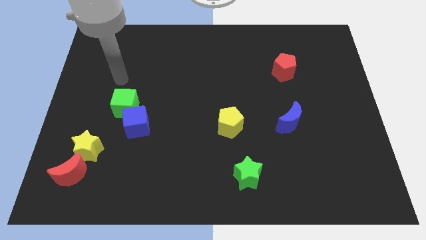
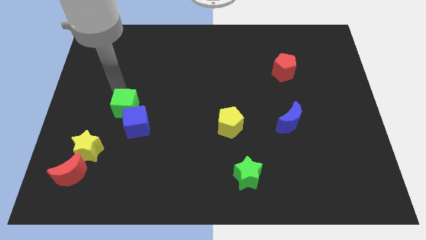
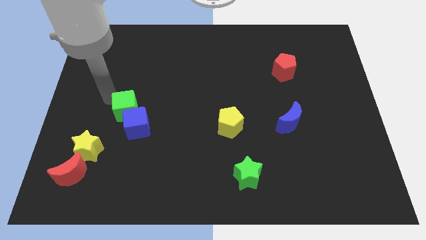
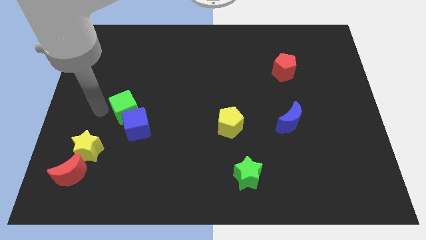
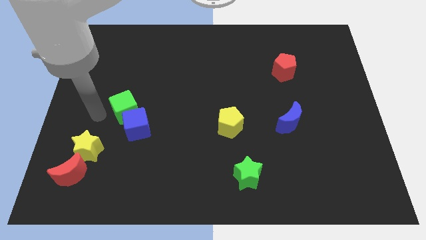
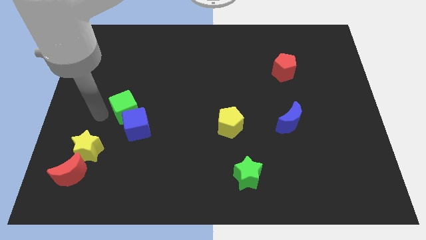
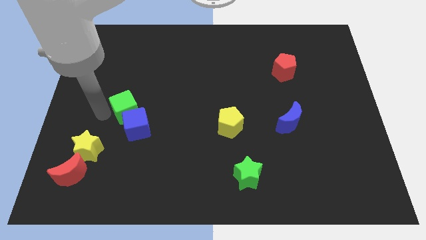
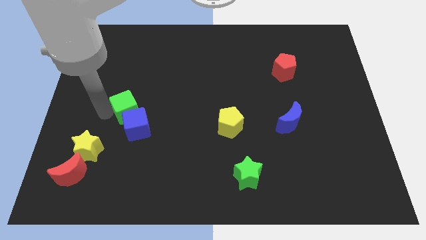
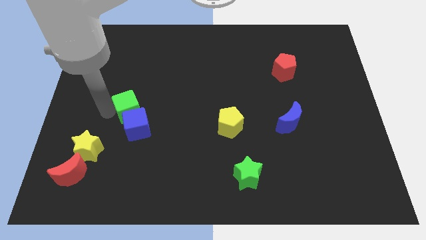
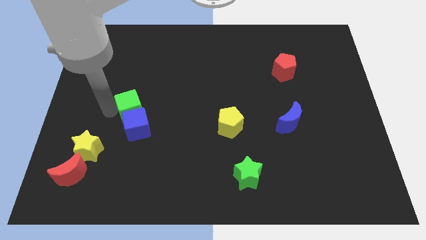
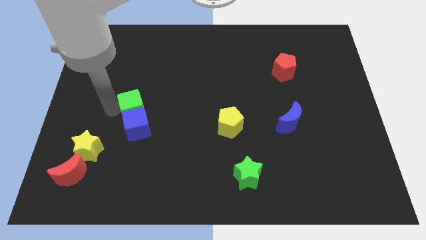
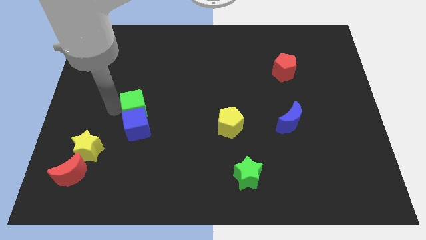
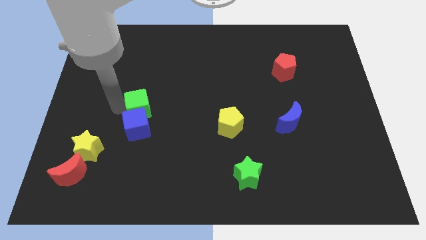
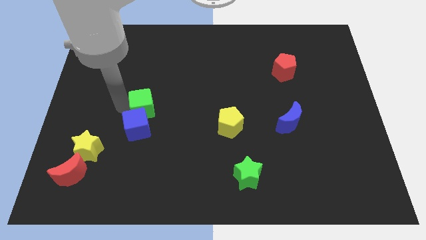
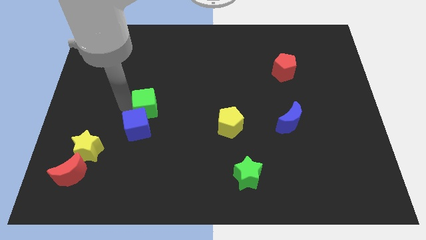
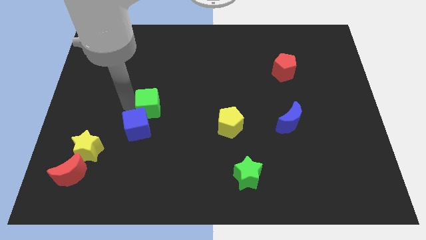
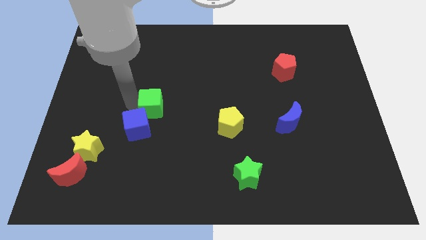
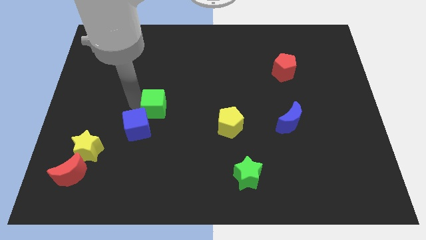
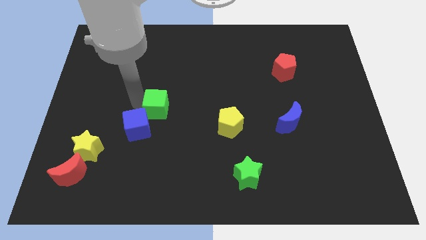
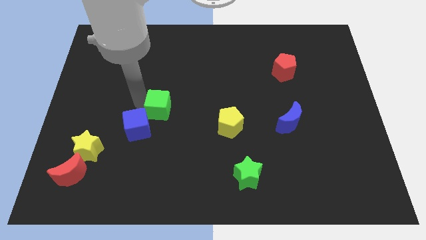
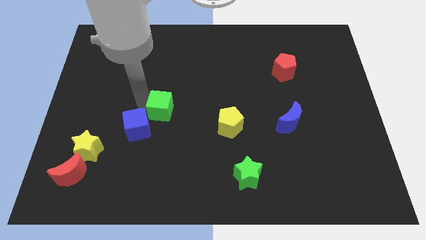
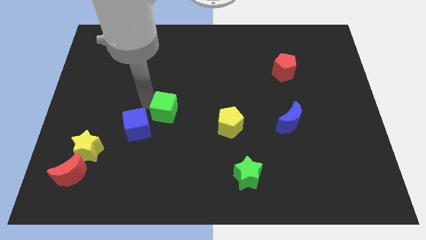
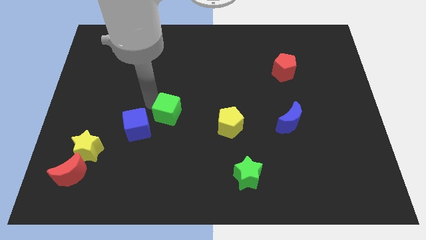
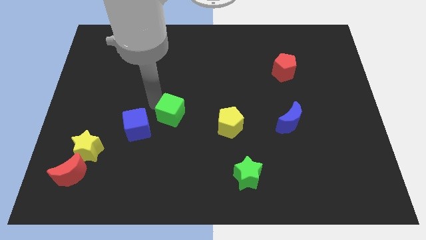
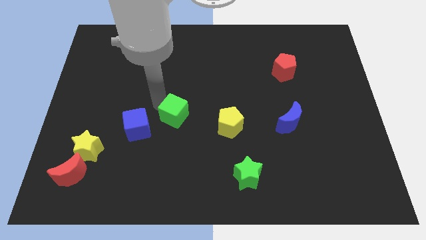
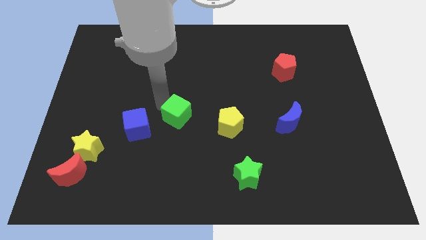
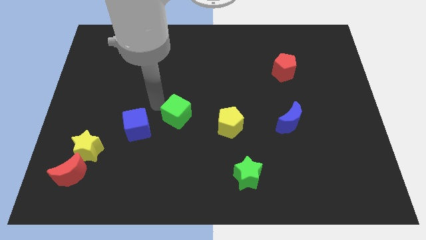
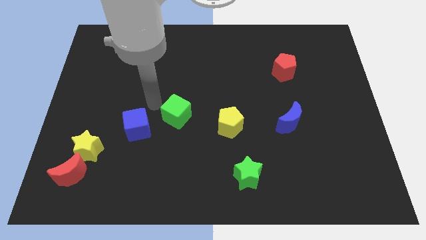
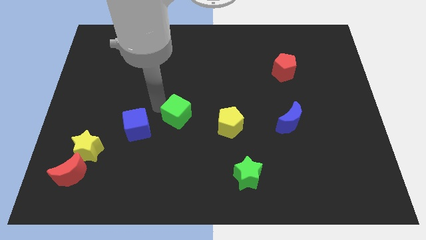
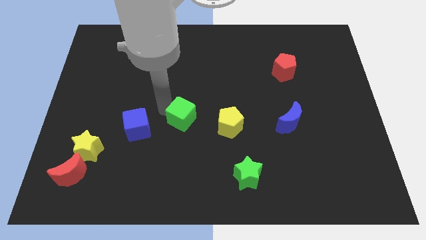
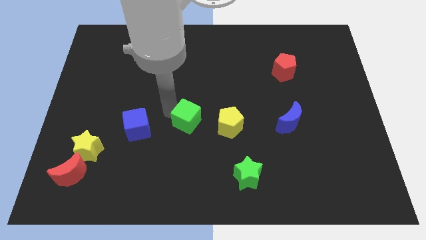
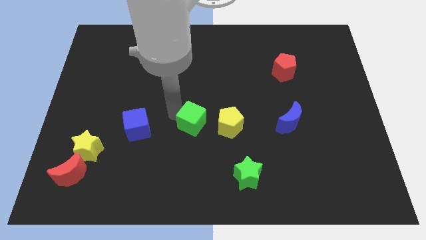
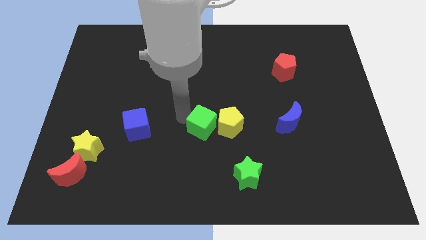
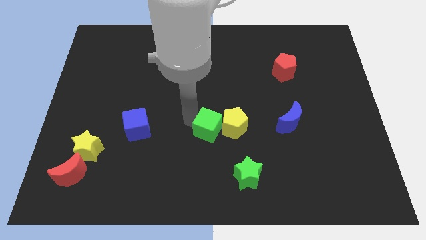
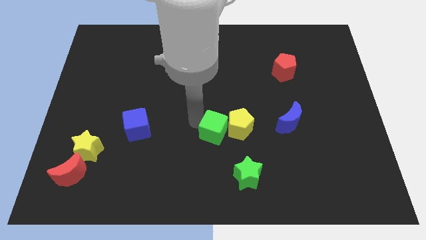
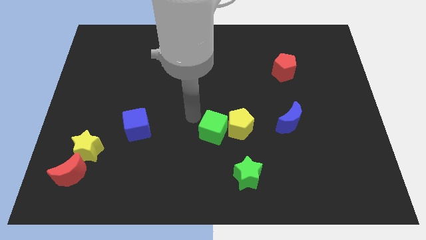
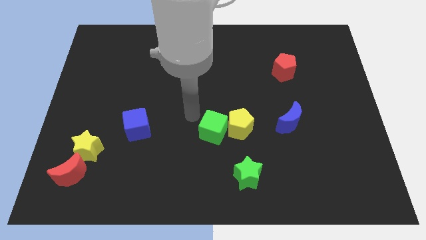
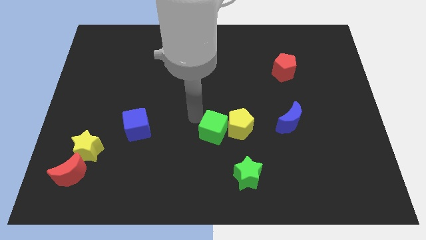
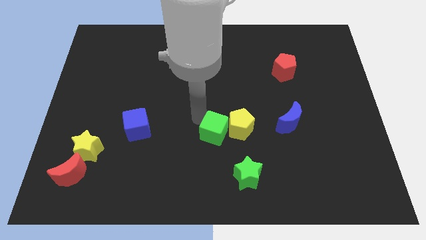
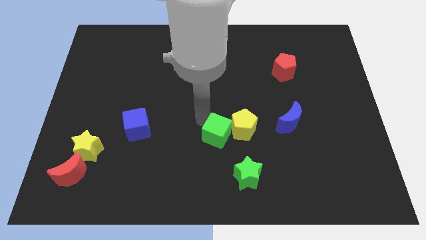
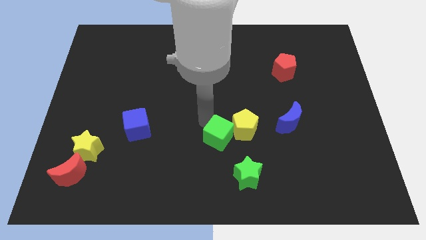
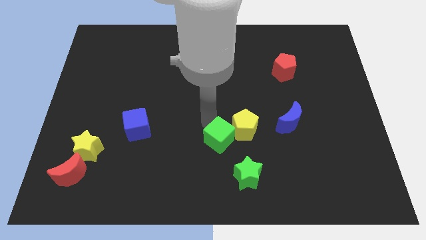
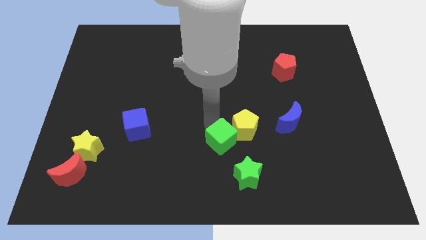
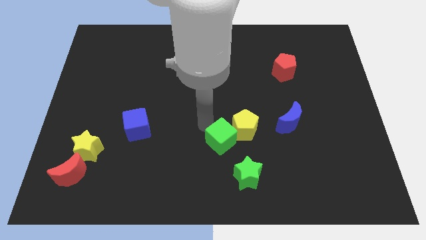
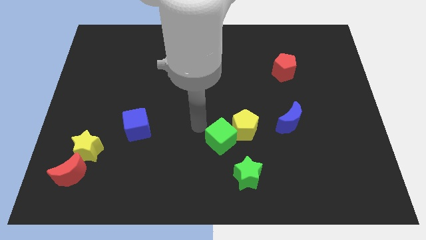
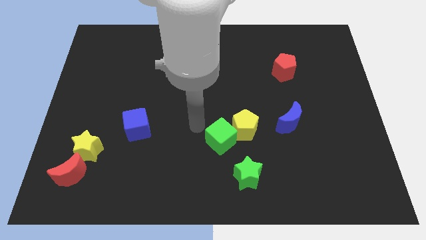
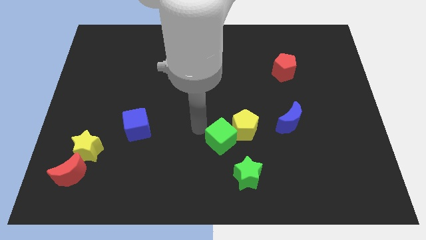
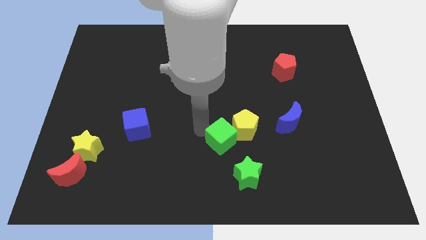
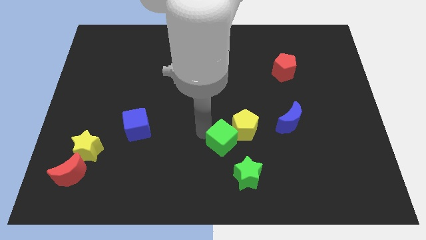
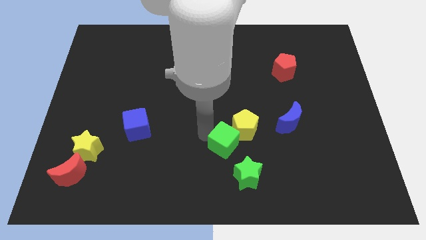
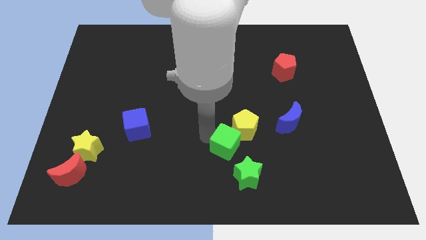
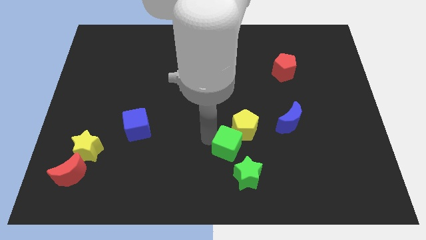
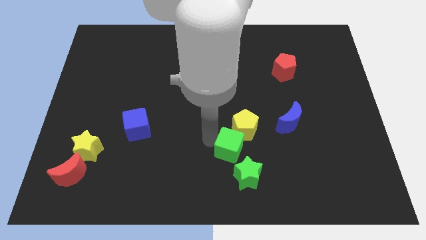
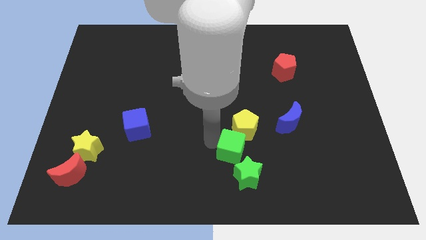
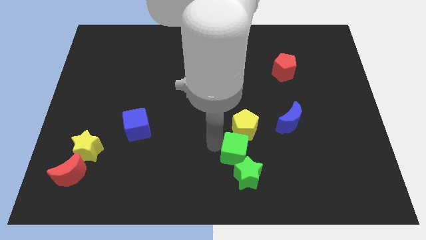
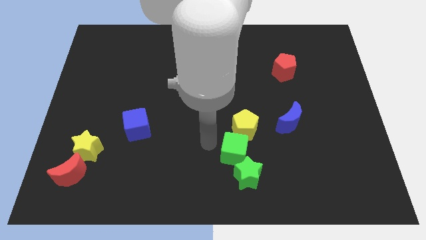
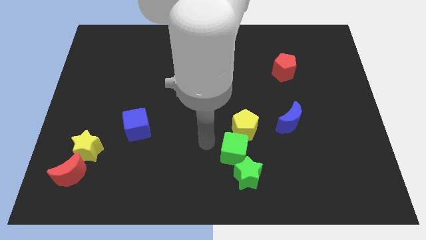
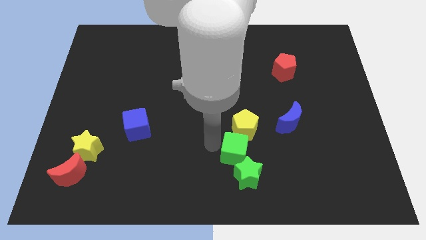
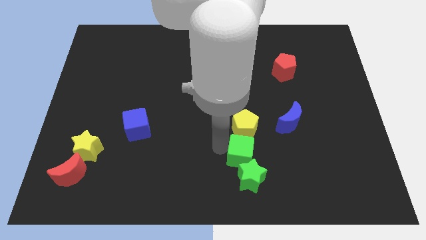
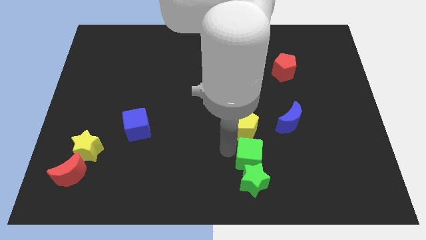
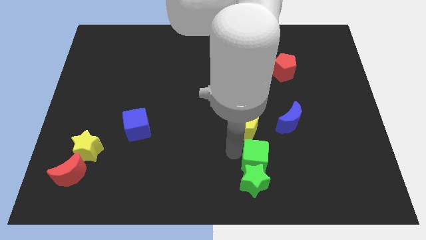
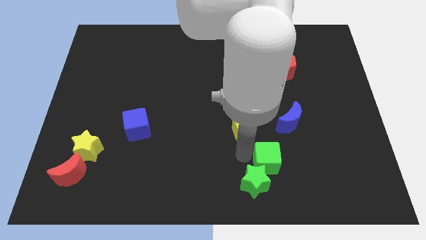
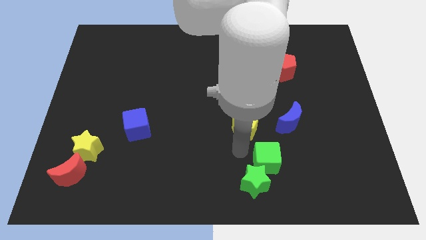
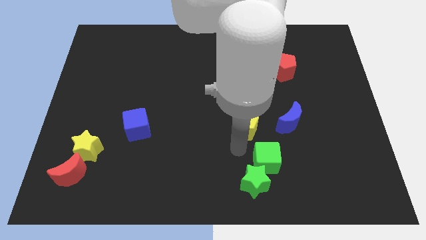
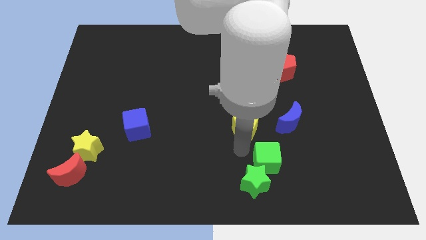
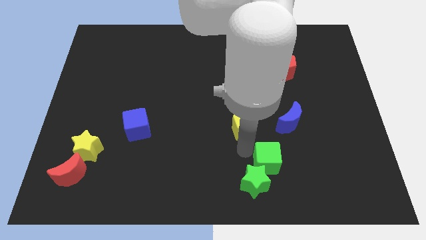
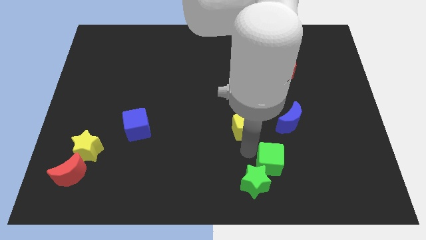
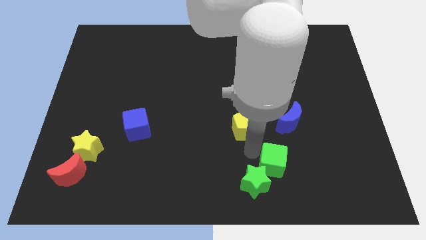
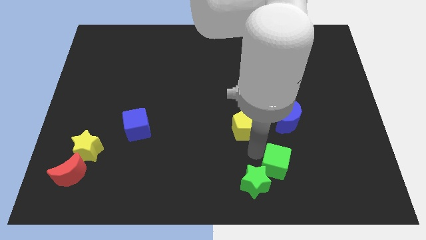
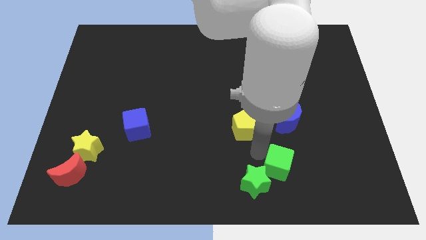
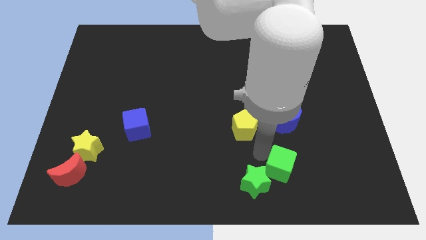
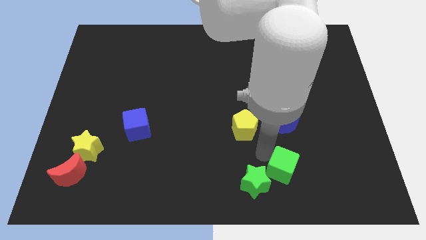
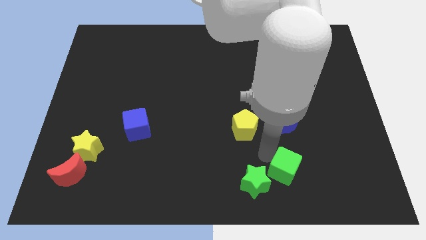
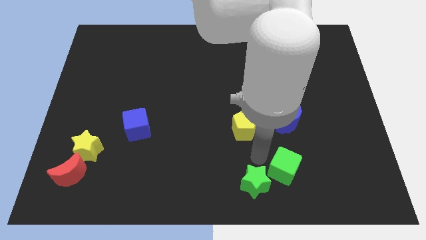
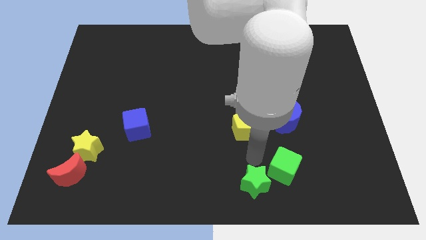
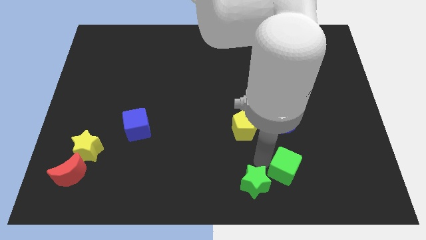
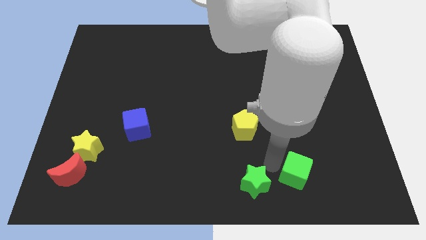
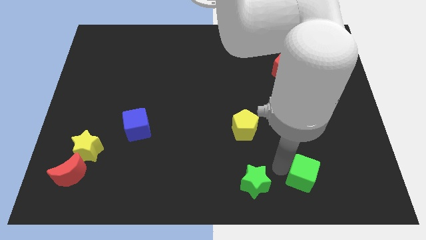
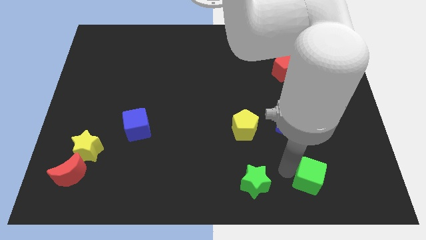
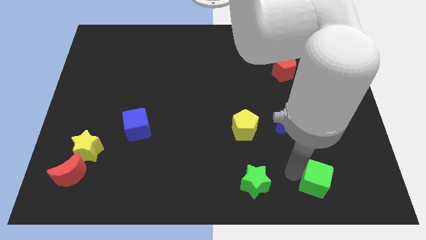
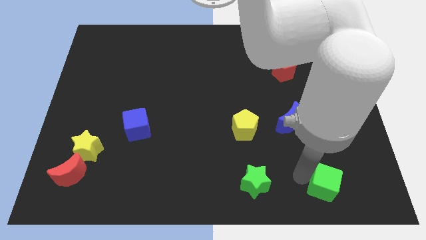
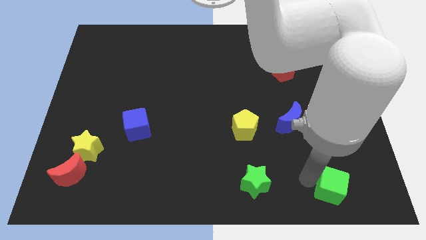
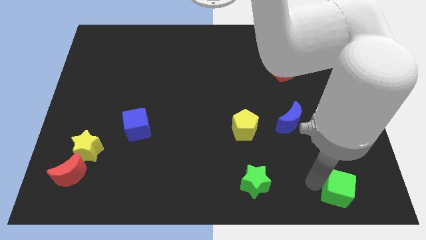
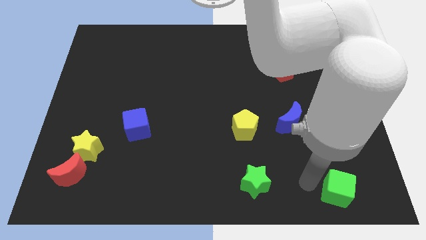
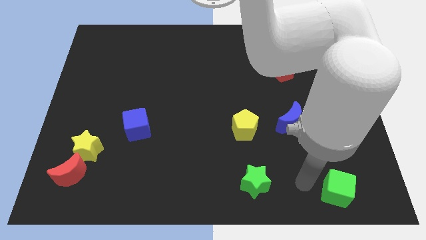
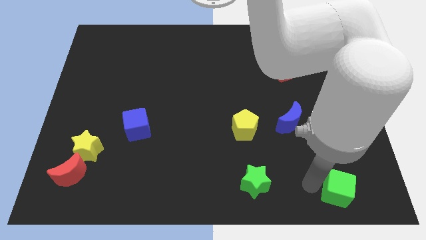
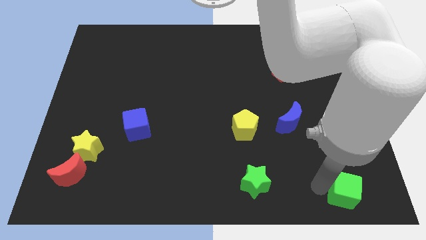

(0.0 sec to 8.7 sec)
move the green cube to the bottom right of the board
